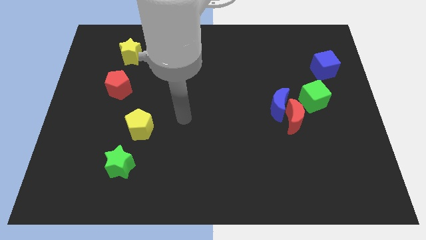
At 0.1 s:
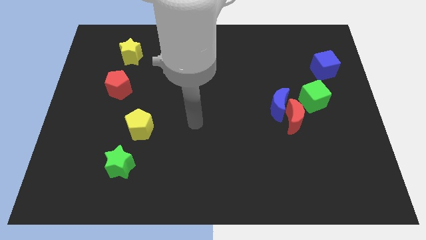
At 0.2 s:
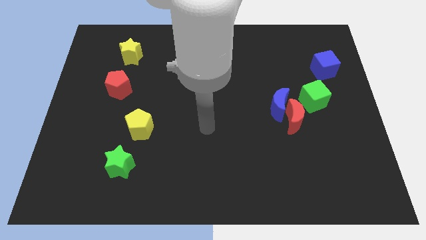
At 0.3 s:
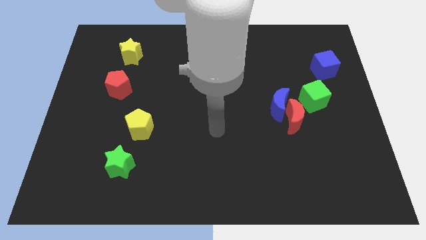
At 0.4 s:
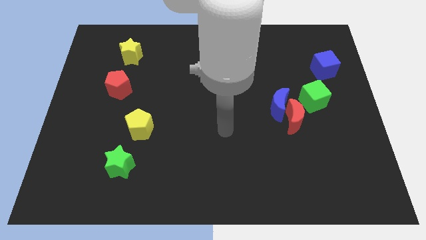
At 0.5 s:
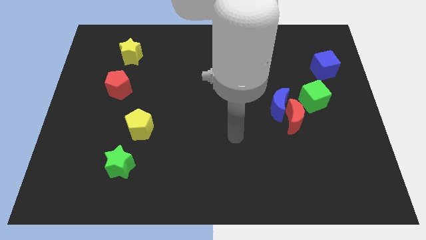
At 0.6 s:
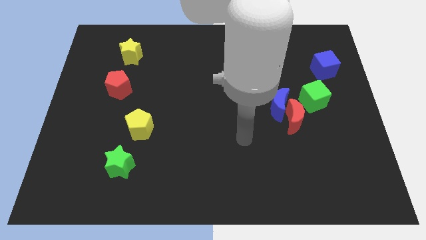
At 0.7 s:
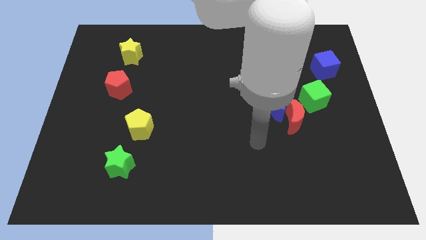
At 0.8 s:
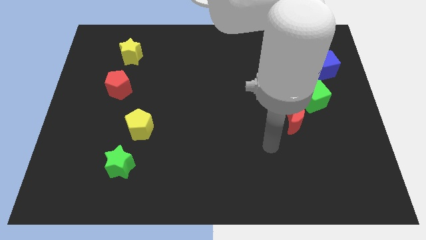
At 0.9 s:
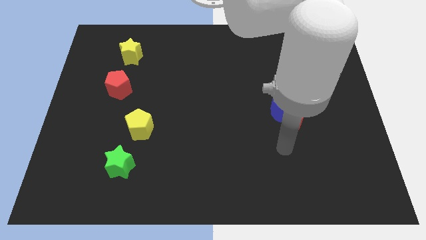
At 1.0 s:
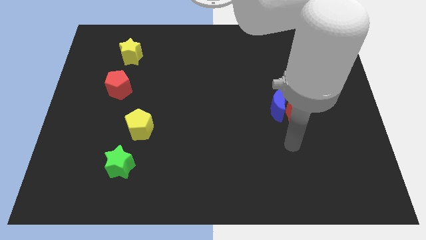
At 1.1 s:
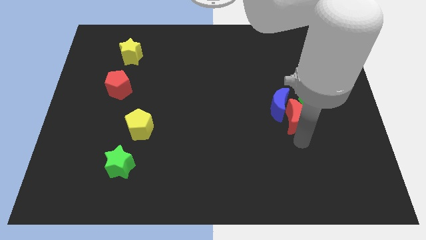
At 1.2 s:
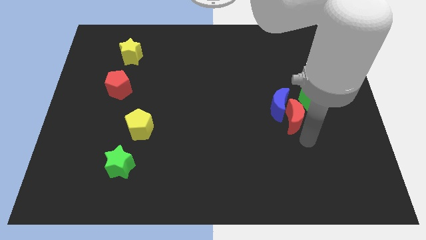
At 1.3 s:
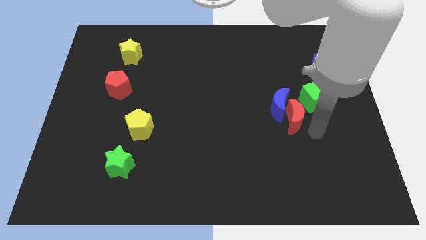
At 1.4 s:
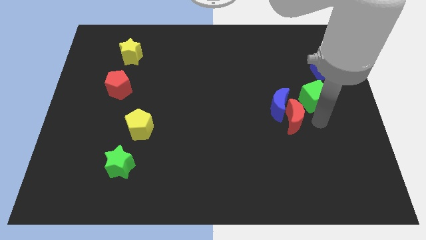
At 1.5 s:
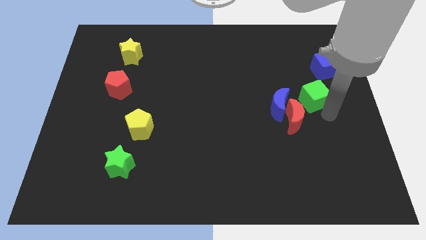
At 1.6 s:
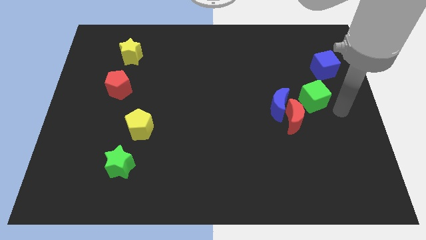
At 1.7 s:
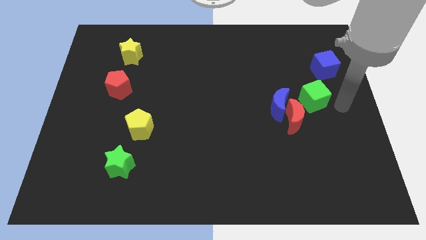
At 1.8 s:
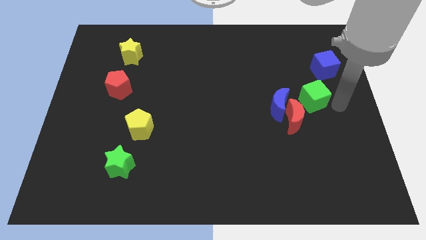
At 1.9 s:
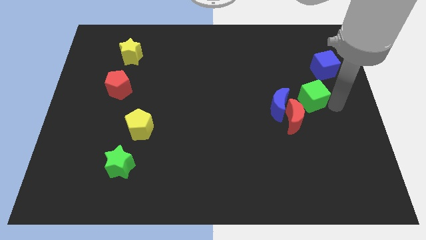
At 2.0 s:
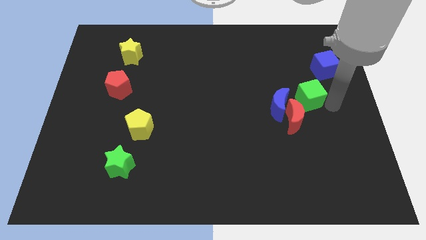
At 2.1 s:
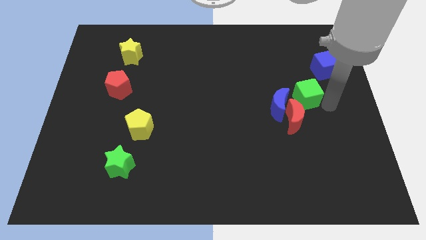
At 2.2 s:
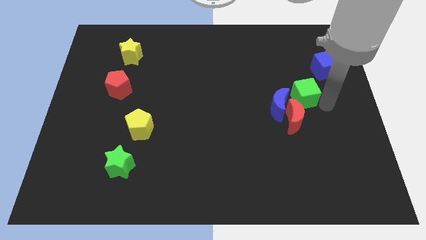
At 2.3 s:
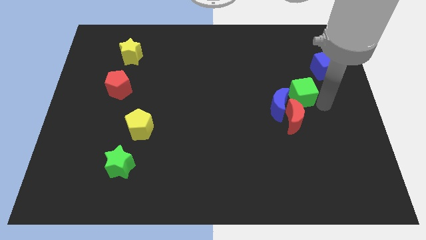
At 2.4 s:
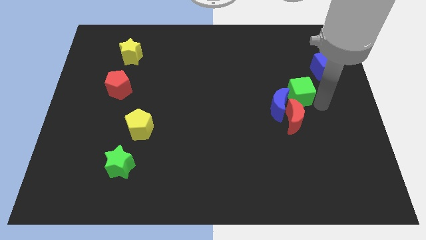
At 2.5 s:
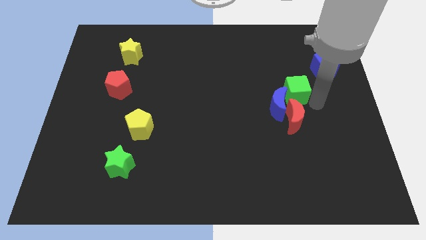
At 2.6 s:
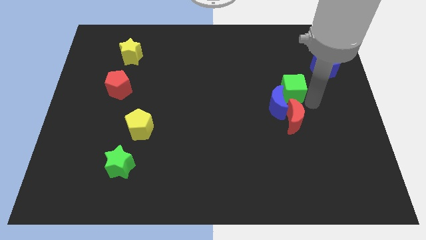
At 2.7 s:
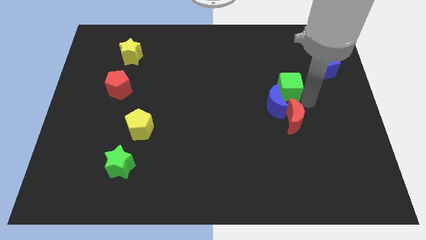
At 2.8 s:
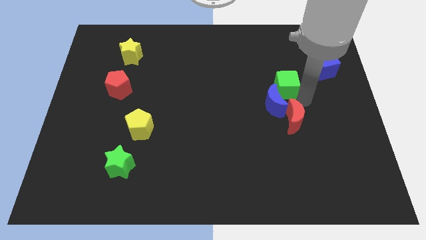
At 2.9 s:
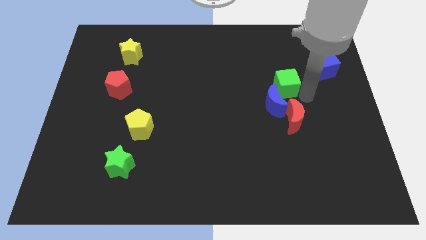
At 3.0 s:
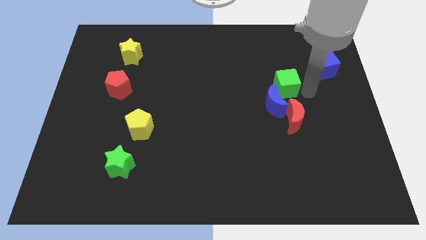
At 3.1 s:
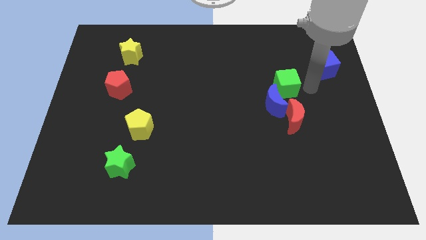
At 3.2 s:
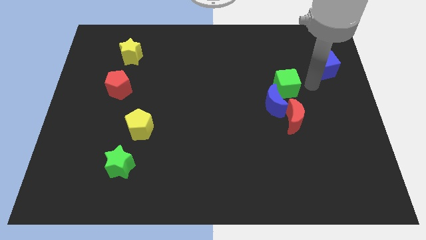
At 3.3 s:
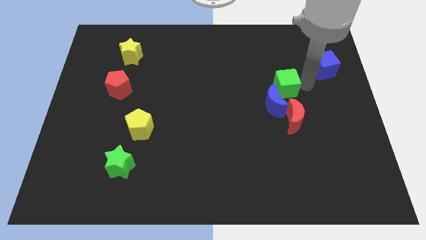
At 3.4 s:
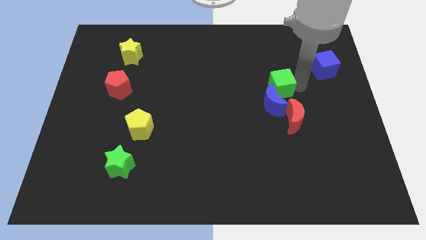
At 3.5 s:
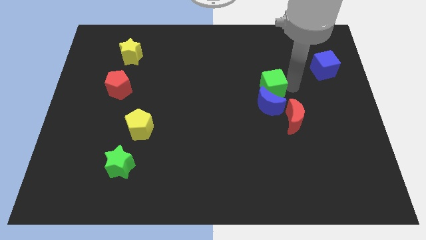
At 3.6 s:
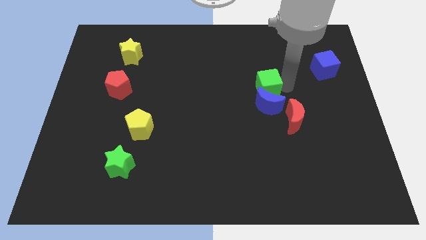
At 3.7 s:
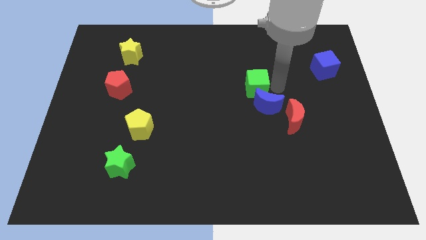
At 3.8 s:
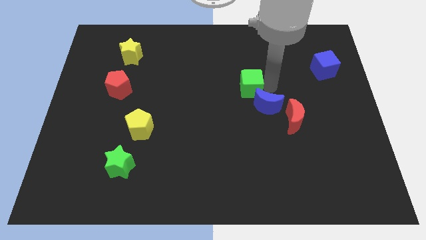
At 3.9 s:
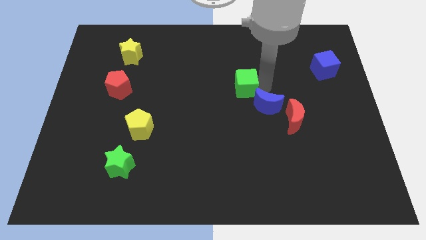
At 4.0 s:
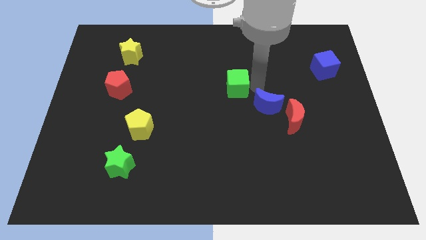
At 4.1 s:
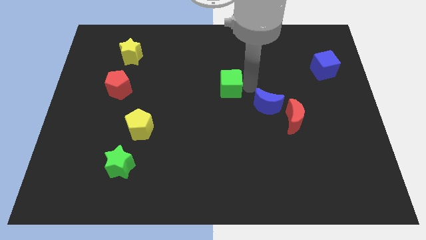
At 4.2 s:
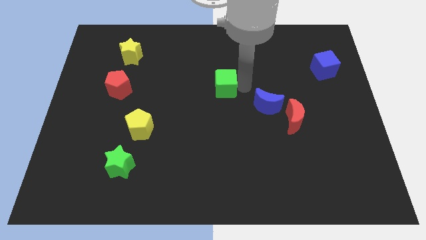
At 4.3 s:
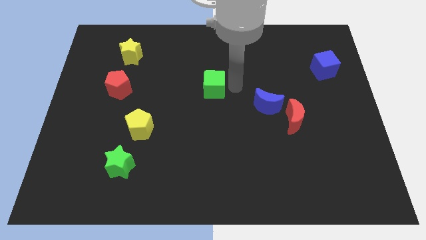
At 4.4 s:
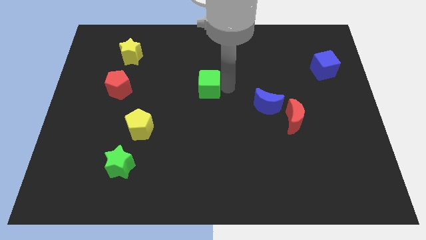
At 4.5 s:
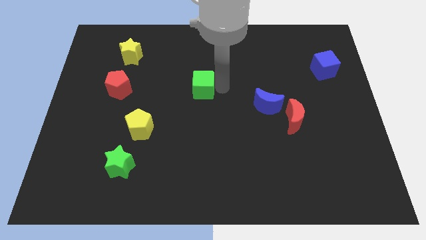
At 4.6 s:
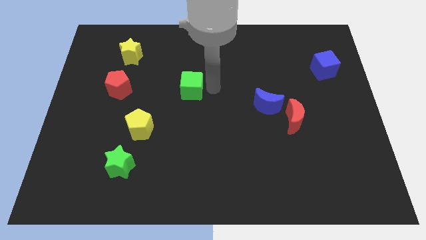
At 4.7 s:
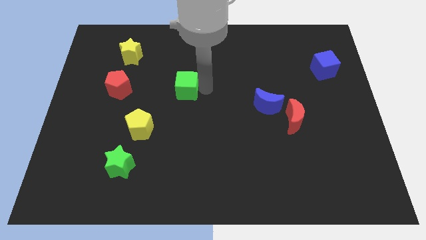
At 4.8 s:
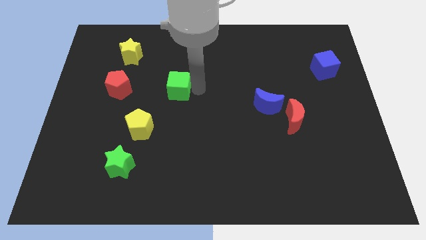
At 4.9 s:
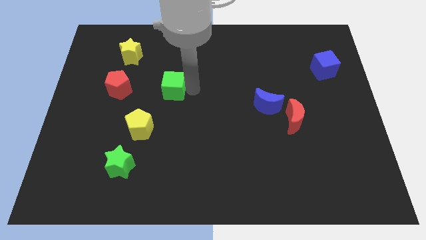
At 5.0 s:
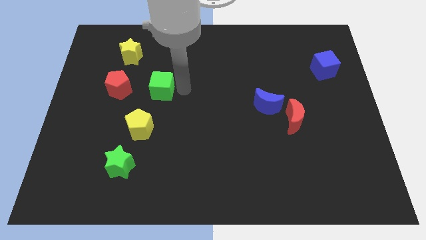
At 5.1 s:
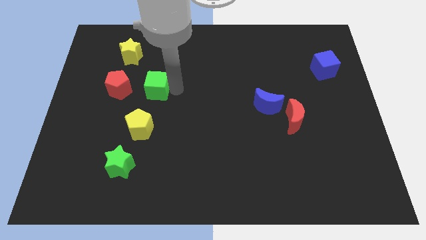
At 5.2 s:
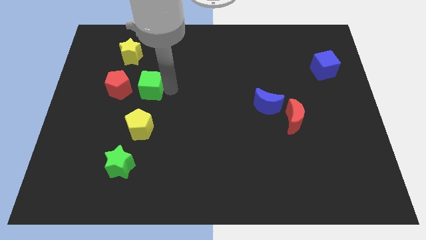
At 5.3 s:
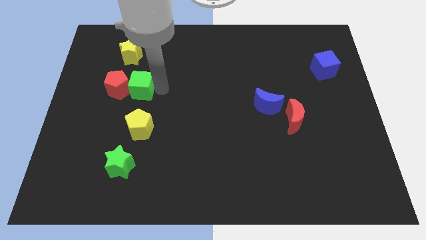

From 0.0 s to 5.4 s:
put the green cube to the red pentagon

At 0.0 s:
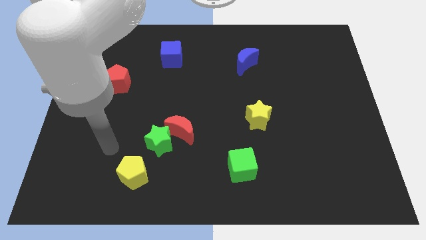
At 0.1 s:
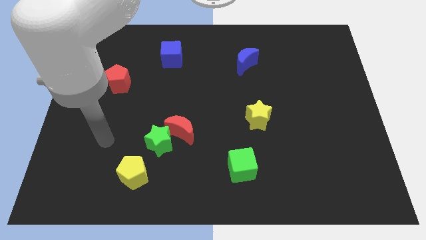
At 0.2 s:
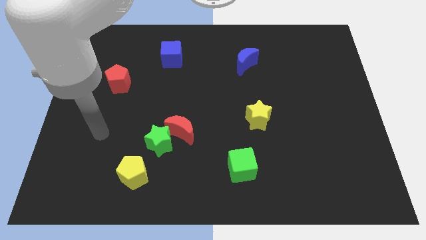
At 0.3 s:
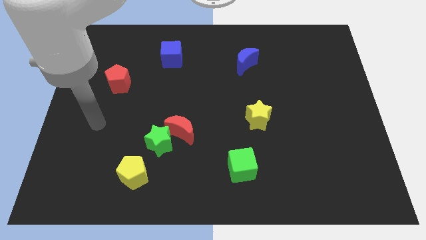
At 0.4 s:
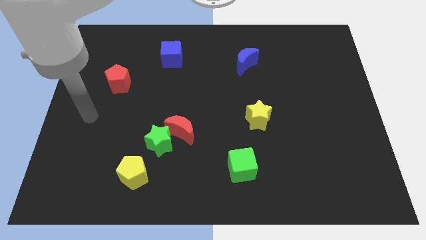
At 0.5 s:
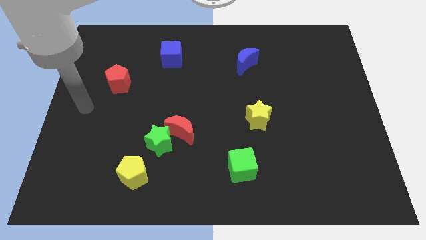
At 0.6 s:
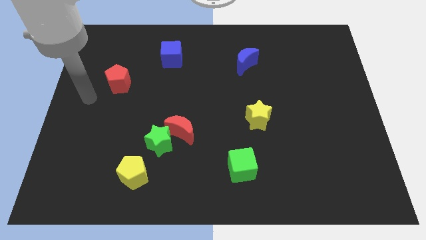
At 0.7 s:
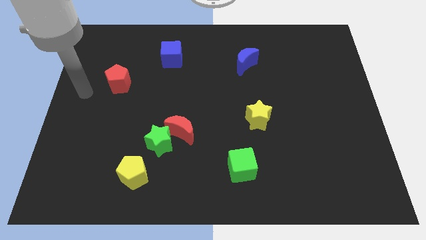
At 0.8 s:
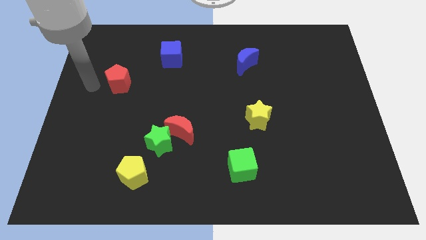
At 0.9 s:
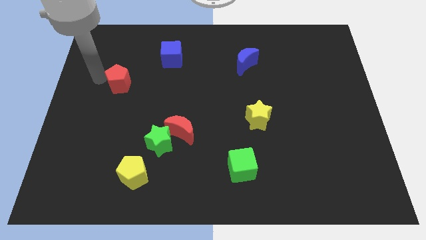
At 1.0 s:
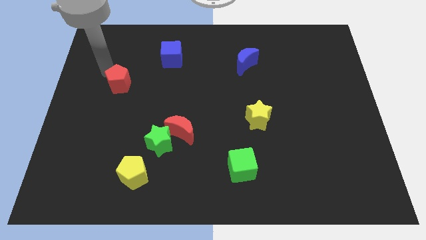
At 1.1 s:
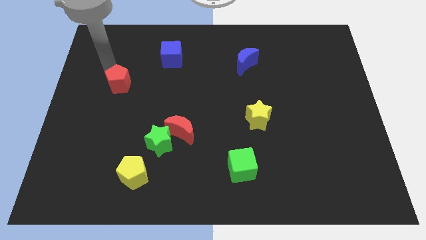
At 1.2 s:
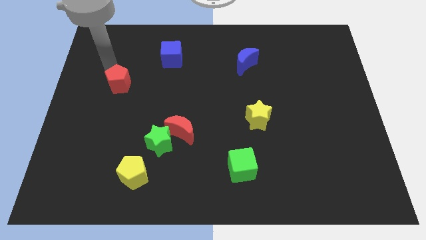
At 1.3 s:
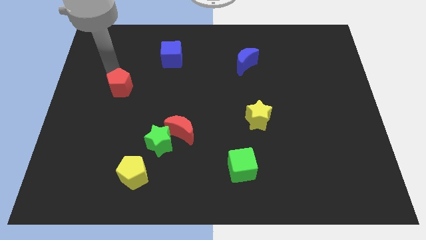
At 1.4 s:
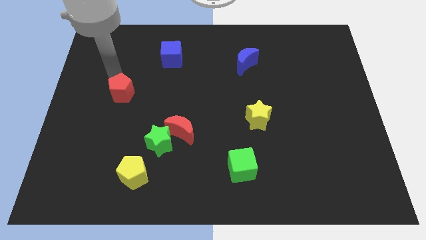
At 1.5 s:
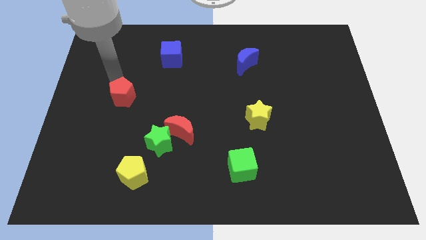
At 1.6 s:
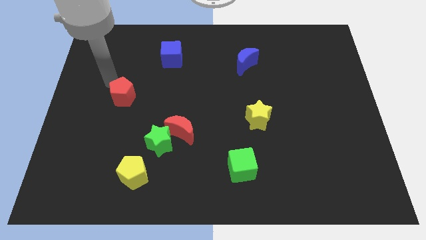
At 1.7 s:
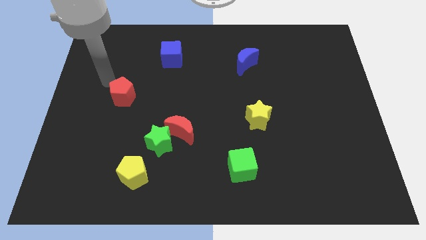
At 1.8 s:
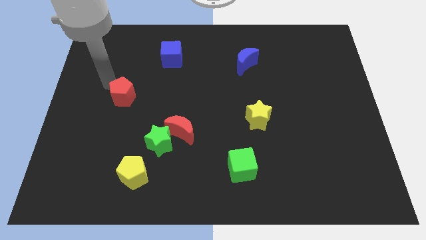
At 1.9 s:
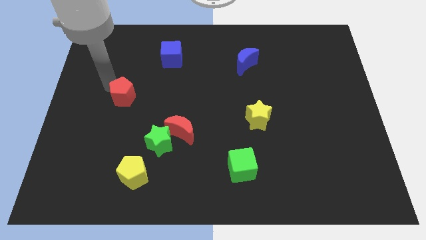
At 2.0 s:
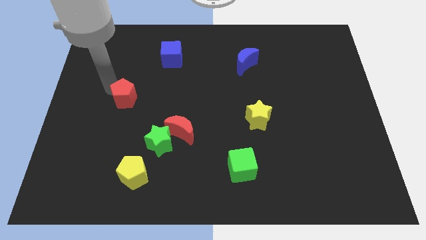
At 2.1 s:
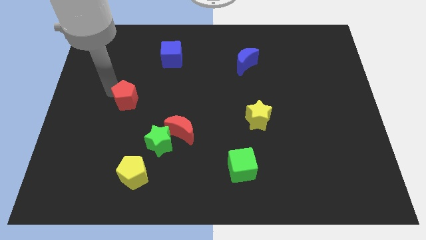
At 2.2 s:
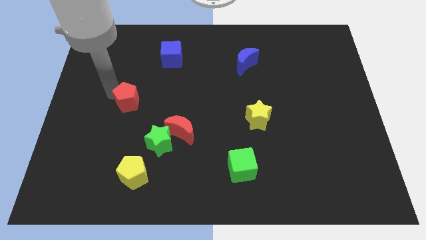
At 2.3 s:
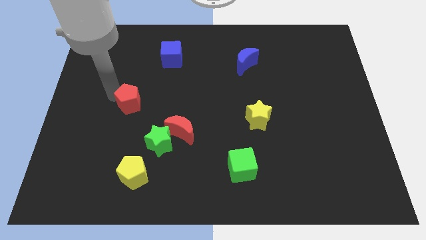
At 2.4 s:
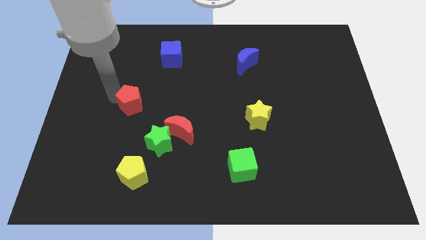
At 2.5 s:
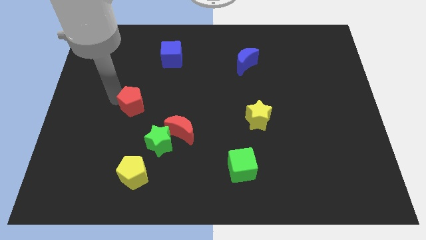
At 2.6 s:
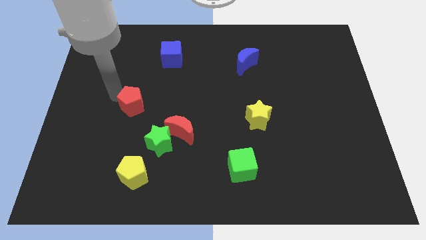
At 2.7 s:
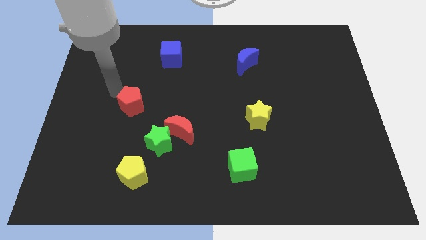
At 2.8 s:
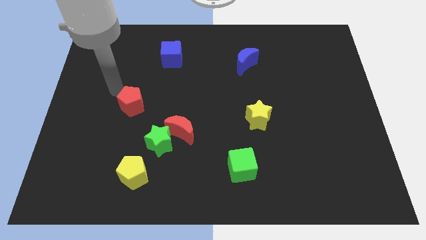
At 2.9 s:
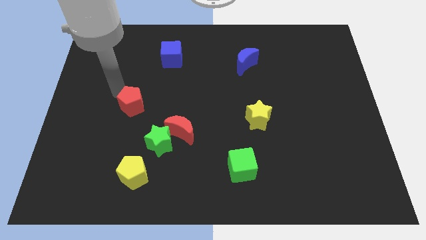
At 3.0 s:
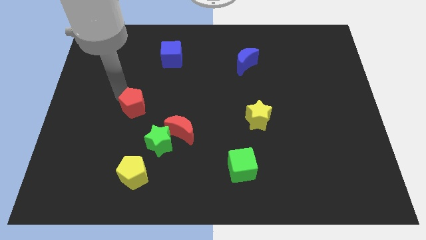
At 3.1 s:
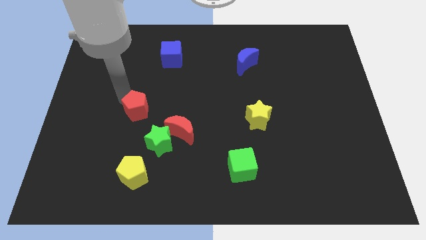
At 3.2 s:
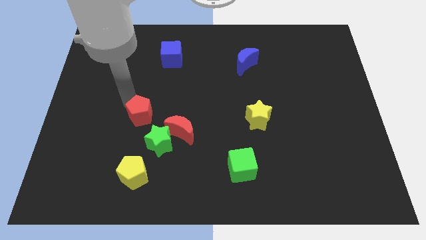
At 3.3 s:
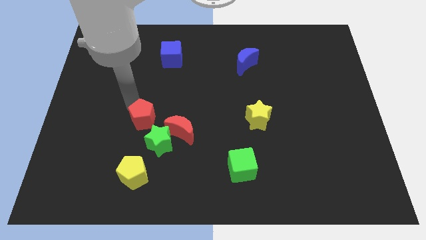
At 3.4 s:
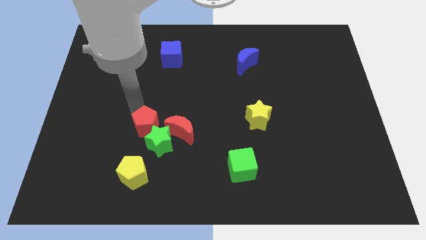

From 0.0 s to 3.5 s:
push the red pentagon next to the green star
